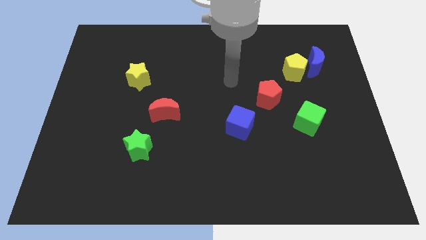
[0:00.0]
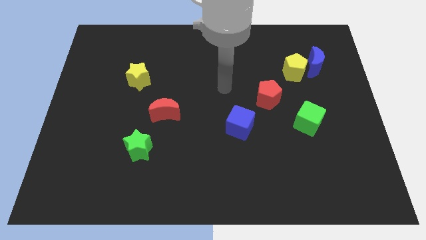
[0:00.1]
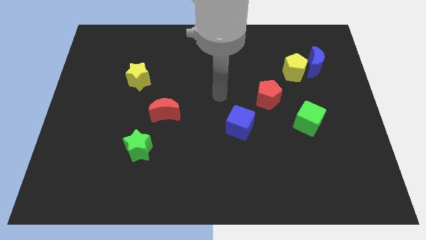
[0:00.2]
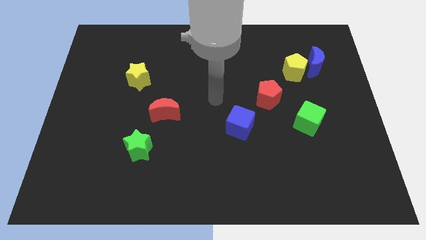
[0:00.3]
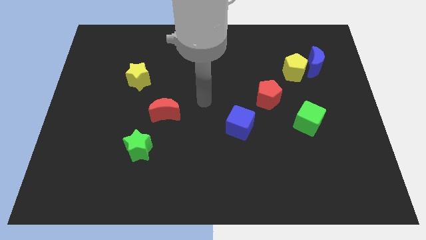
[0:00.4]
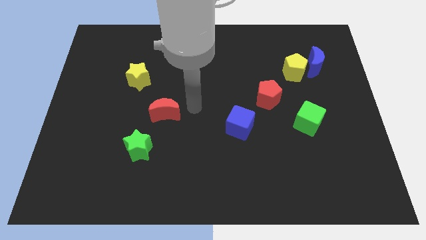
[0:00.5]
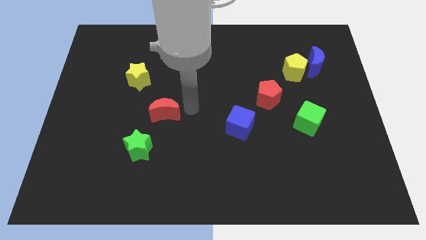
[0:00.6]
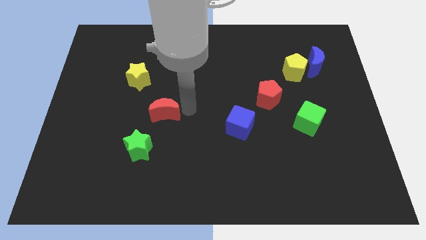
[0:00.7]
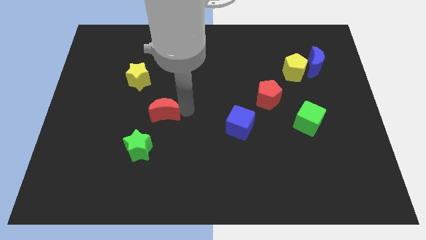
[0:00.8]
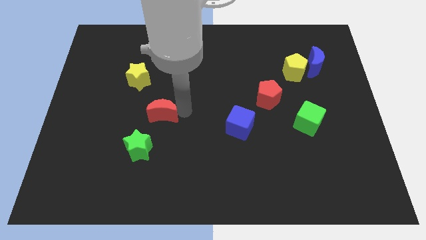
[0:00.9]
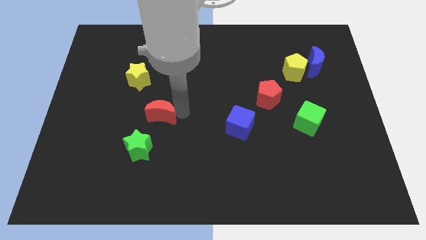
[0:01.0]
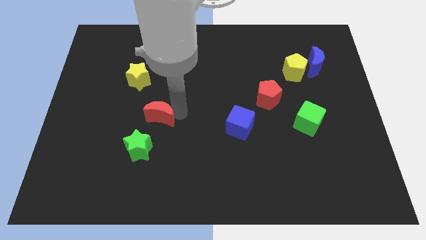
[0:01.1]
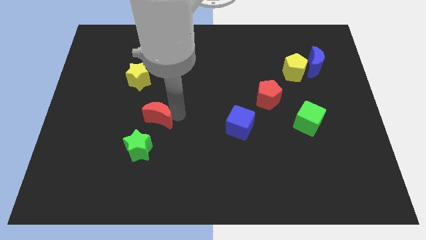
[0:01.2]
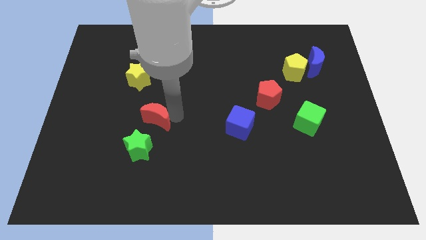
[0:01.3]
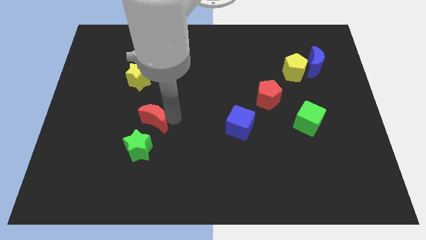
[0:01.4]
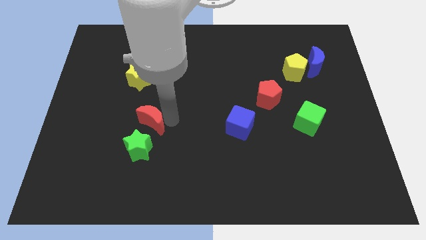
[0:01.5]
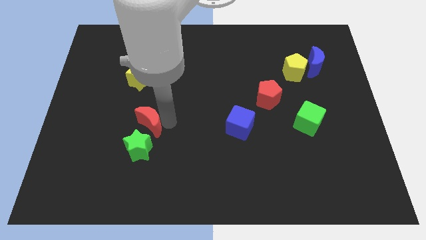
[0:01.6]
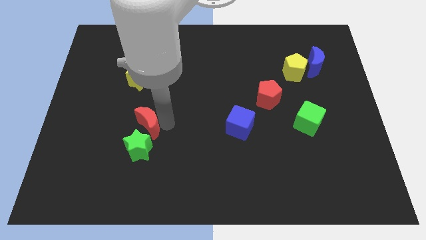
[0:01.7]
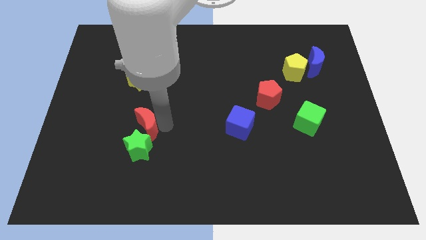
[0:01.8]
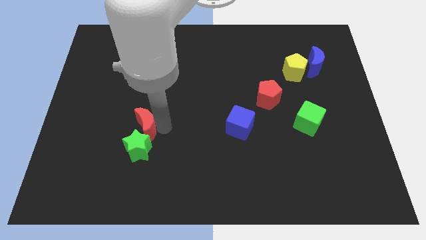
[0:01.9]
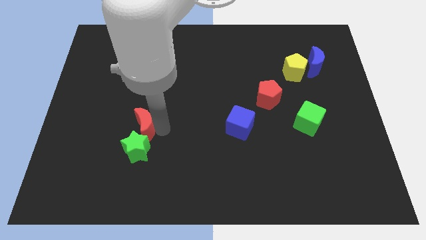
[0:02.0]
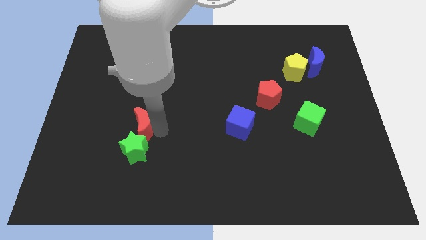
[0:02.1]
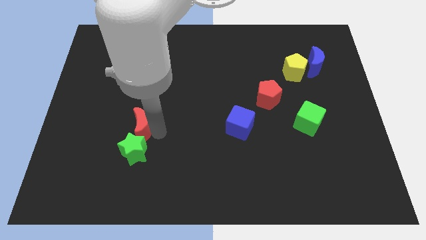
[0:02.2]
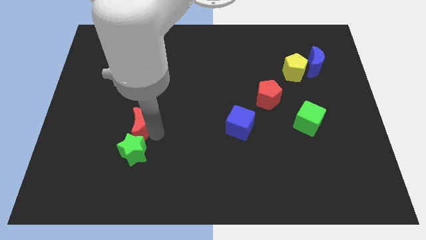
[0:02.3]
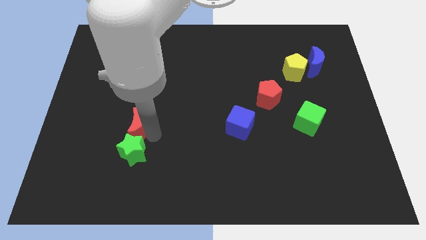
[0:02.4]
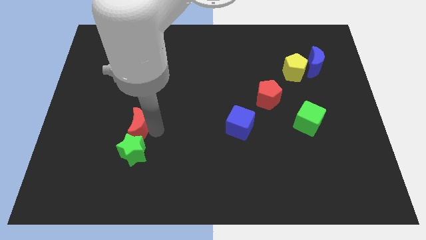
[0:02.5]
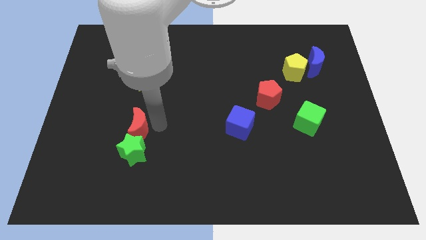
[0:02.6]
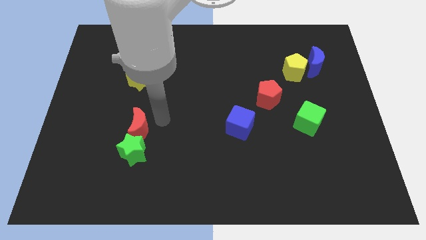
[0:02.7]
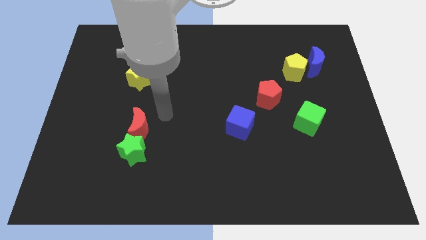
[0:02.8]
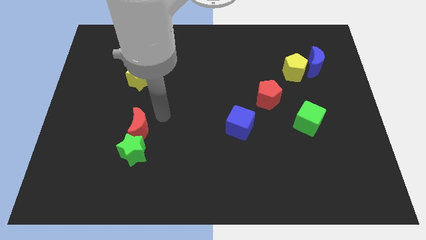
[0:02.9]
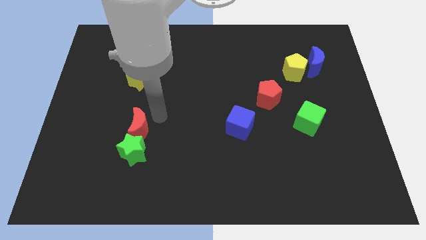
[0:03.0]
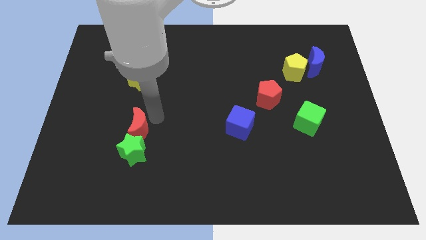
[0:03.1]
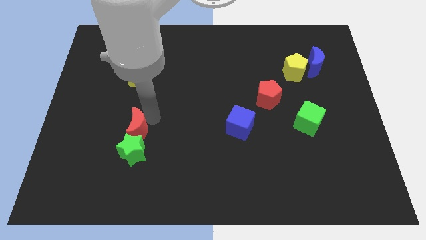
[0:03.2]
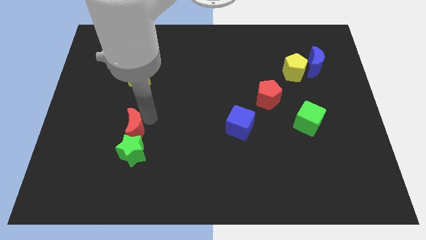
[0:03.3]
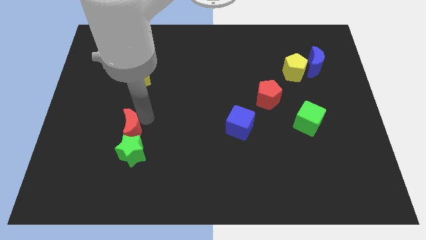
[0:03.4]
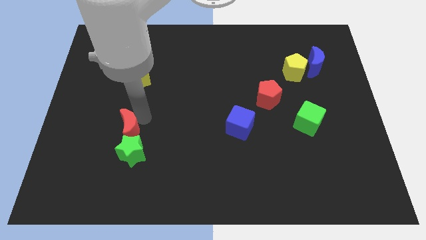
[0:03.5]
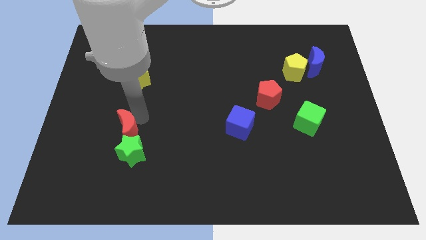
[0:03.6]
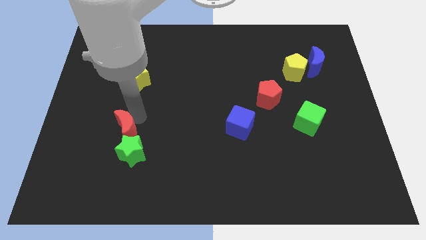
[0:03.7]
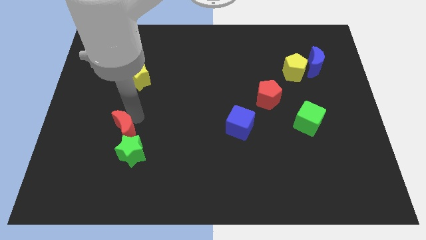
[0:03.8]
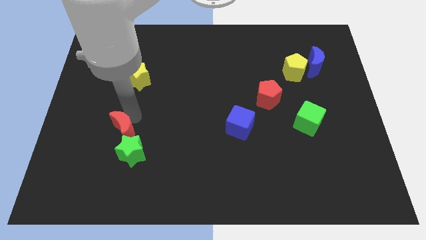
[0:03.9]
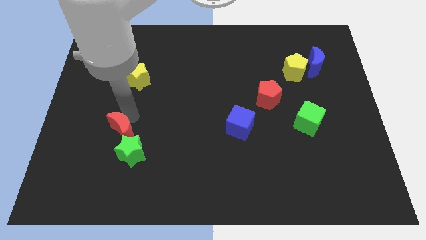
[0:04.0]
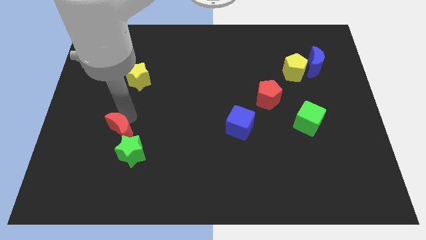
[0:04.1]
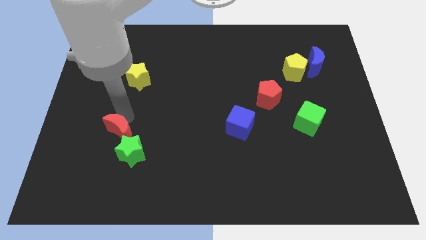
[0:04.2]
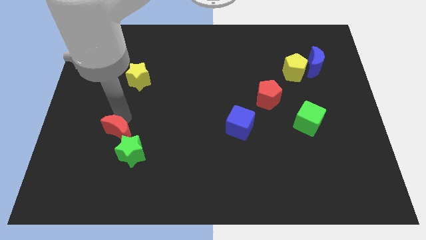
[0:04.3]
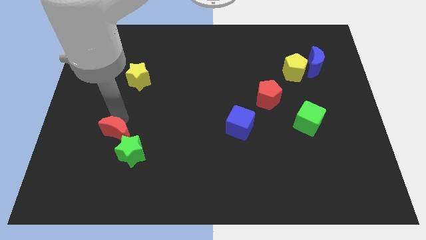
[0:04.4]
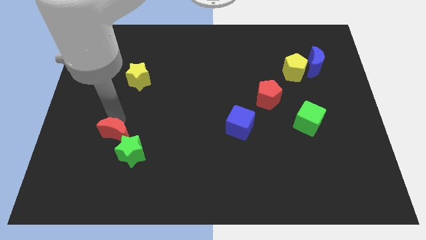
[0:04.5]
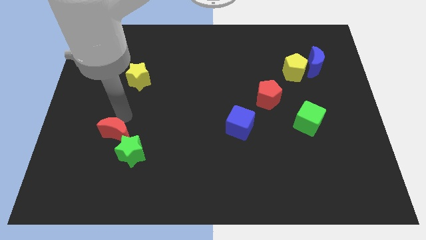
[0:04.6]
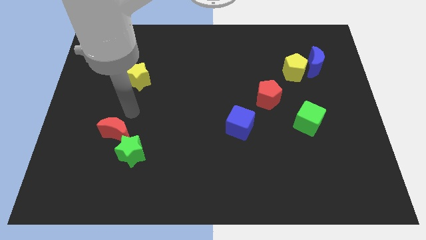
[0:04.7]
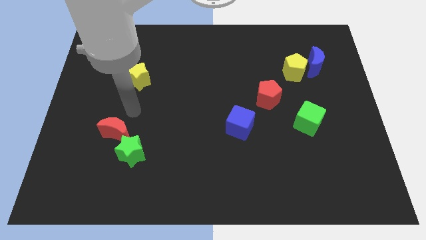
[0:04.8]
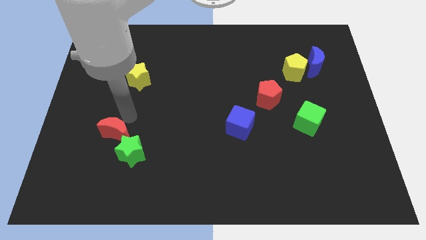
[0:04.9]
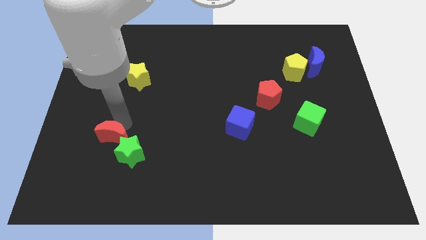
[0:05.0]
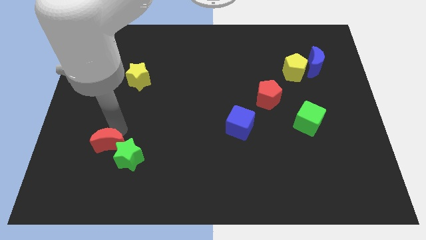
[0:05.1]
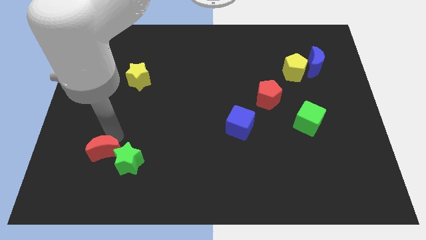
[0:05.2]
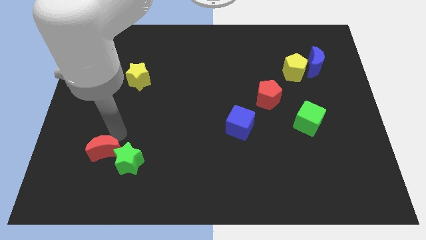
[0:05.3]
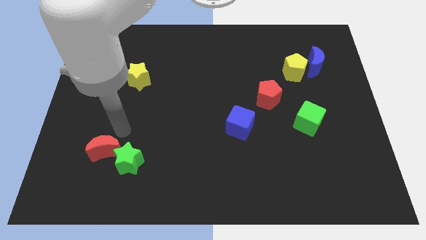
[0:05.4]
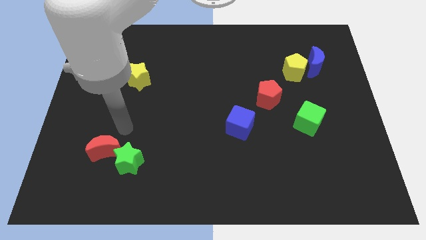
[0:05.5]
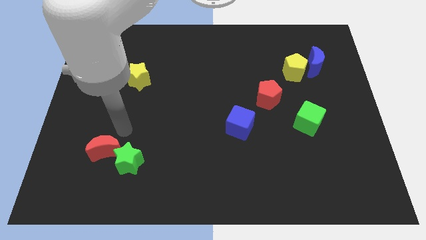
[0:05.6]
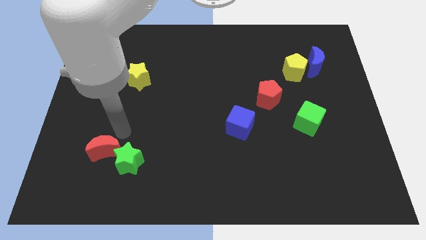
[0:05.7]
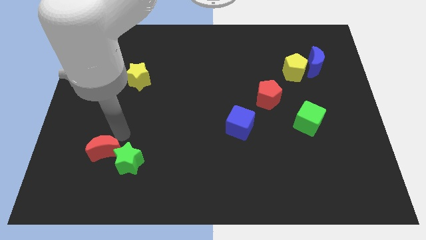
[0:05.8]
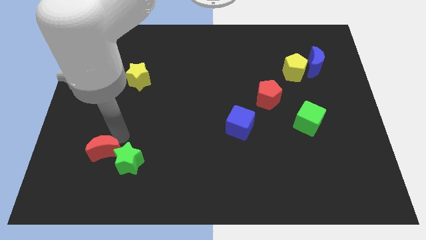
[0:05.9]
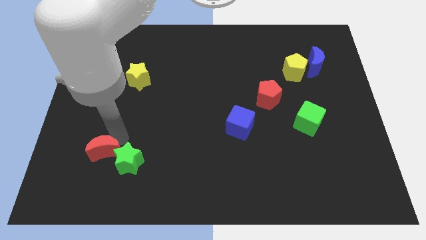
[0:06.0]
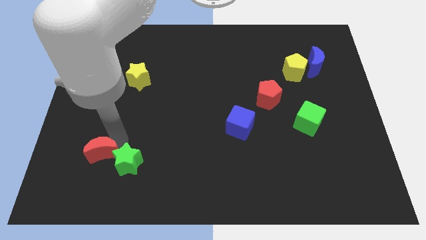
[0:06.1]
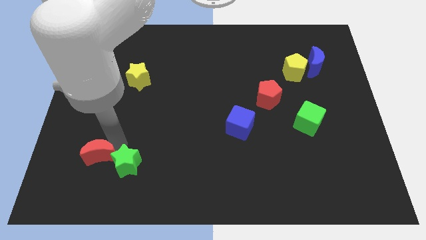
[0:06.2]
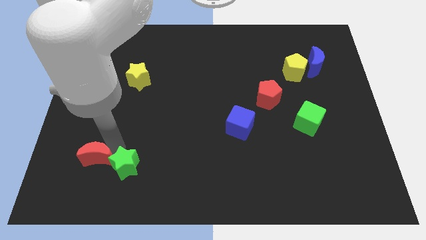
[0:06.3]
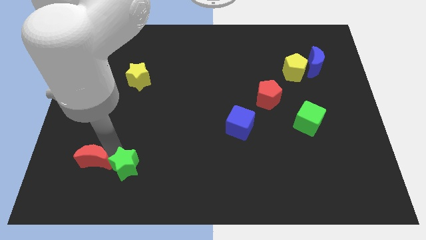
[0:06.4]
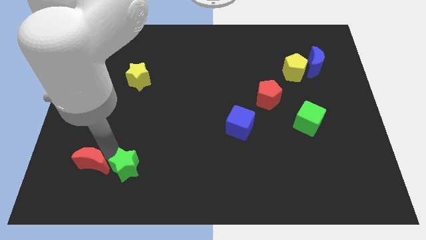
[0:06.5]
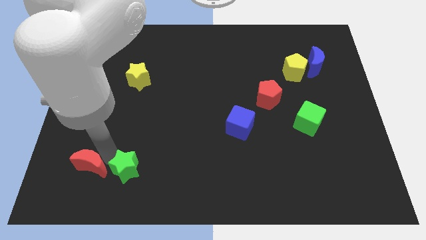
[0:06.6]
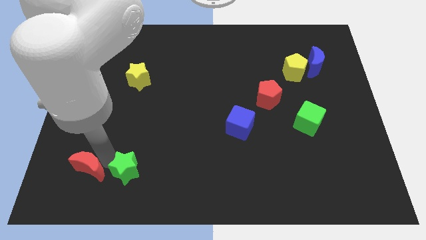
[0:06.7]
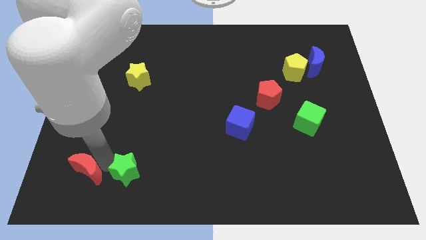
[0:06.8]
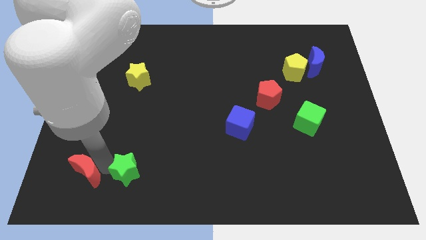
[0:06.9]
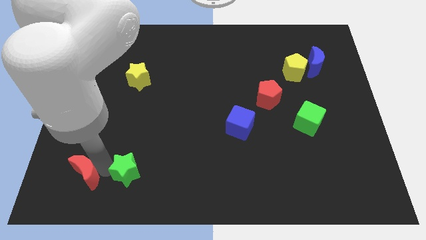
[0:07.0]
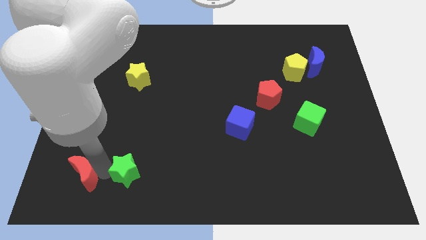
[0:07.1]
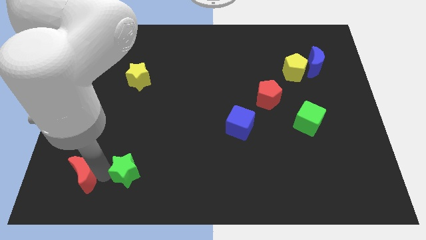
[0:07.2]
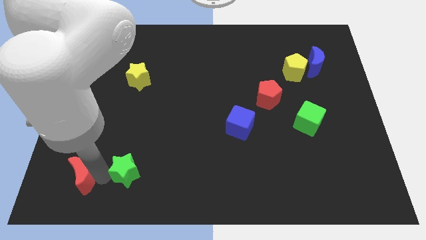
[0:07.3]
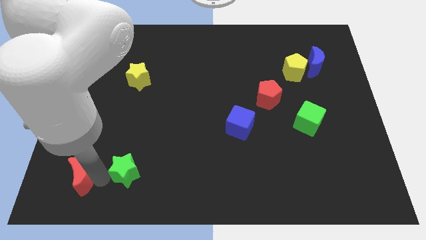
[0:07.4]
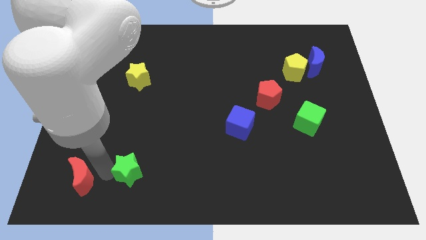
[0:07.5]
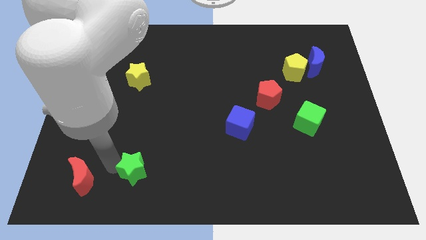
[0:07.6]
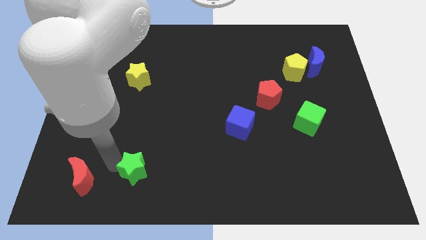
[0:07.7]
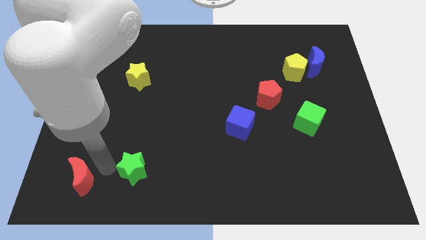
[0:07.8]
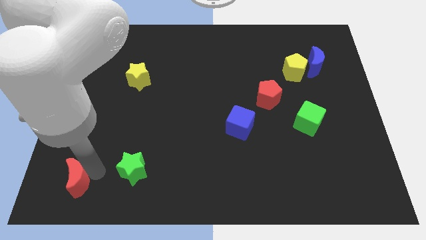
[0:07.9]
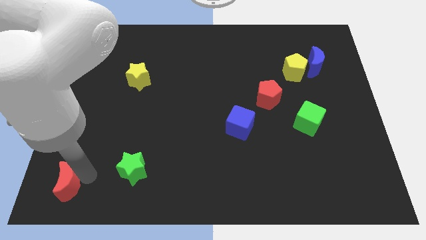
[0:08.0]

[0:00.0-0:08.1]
slide the red moon to the bottom left corner
